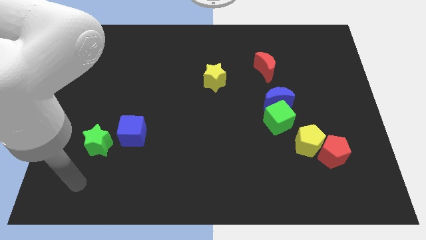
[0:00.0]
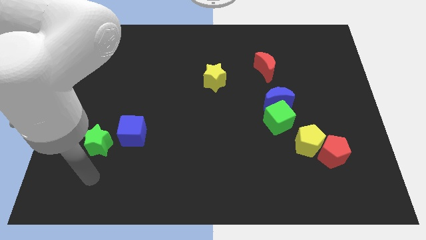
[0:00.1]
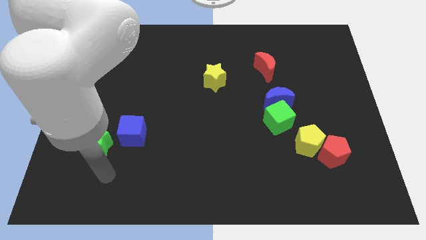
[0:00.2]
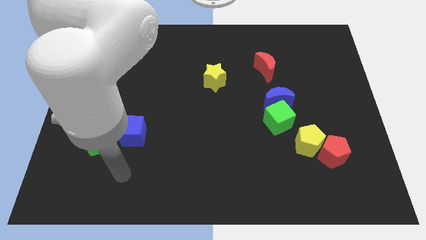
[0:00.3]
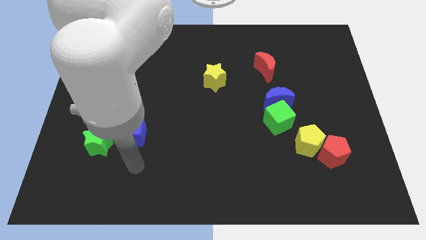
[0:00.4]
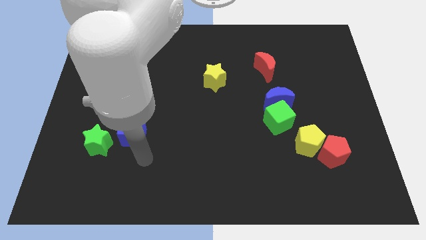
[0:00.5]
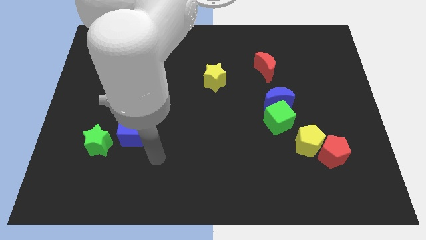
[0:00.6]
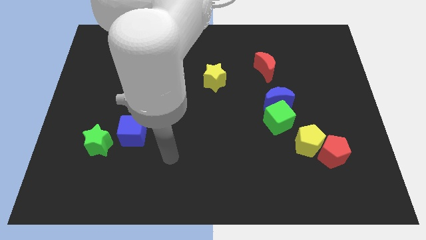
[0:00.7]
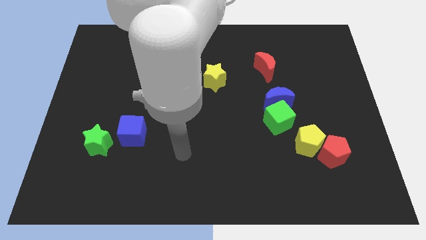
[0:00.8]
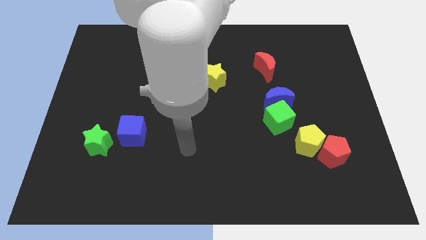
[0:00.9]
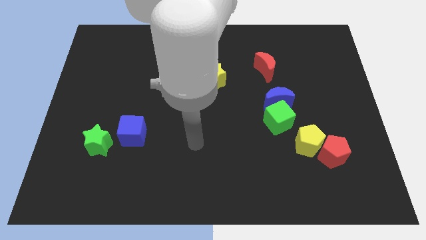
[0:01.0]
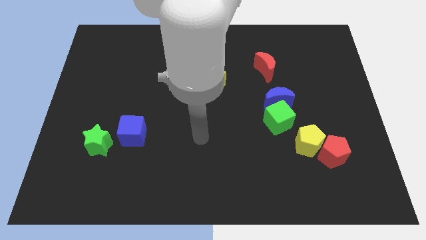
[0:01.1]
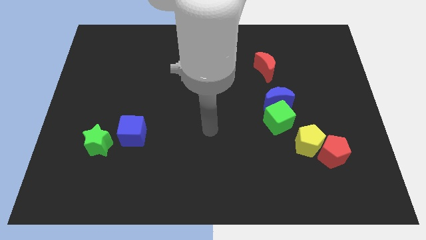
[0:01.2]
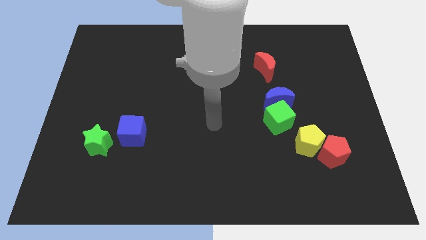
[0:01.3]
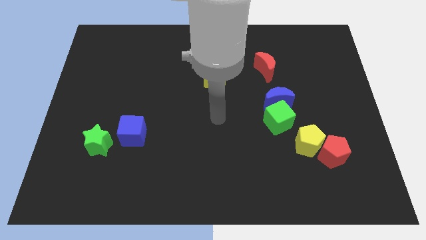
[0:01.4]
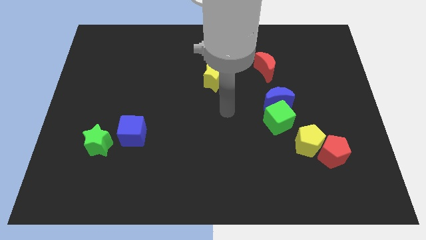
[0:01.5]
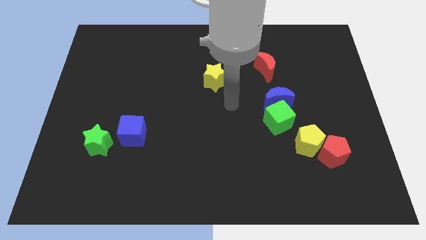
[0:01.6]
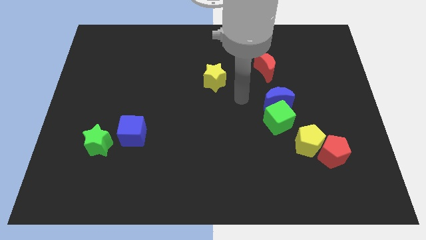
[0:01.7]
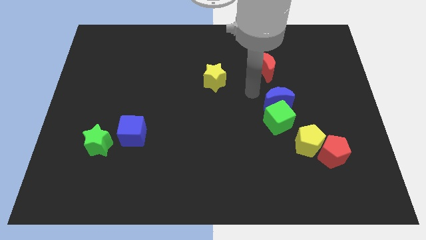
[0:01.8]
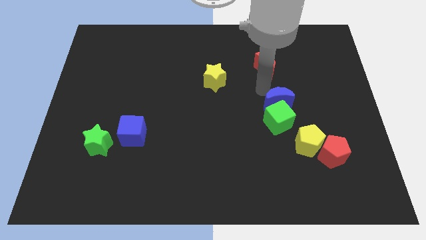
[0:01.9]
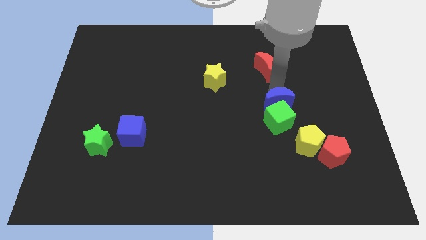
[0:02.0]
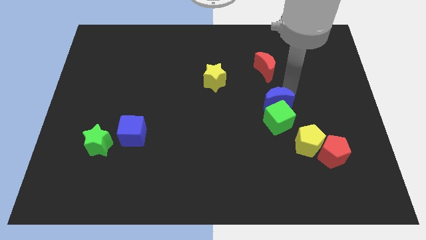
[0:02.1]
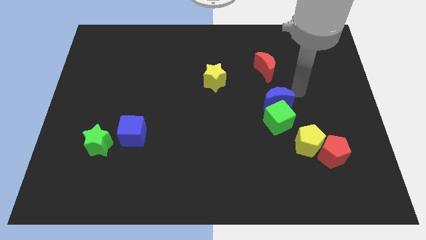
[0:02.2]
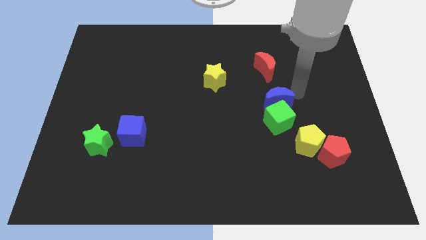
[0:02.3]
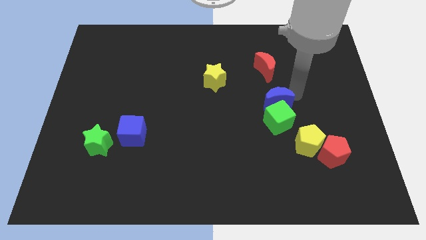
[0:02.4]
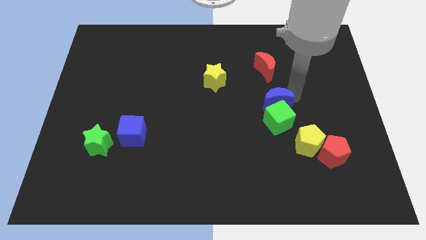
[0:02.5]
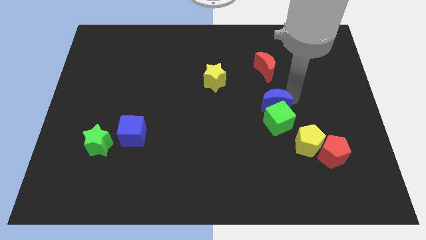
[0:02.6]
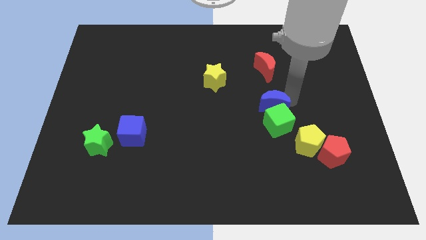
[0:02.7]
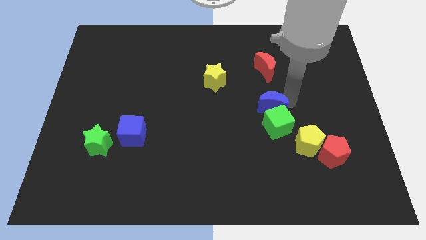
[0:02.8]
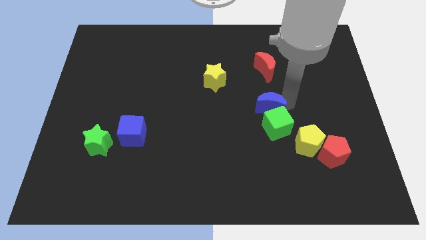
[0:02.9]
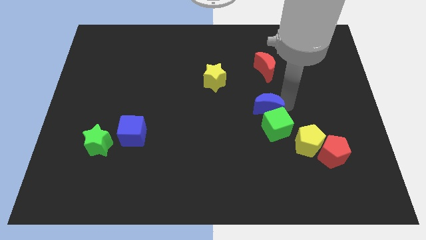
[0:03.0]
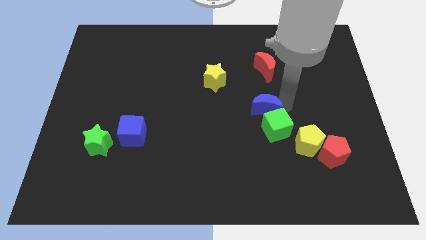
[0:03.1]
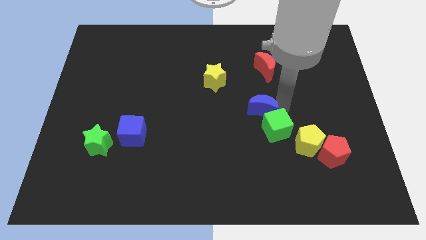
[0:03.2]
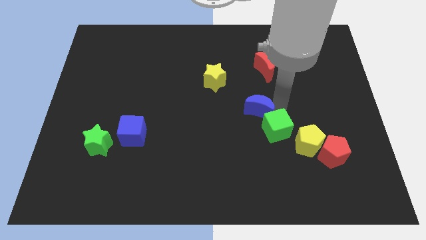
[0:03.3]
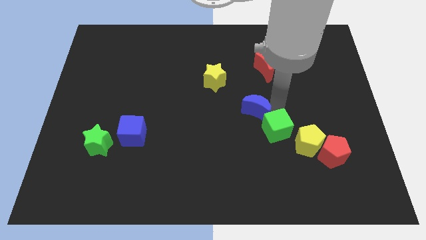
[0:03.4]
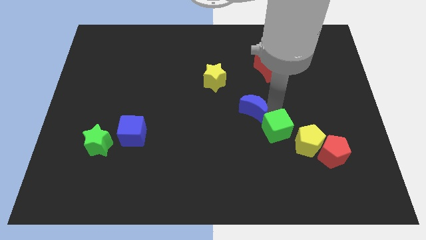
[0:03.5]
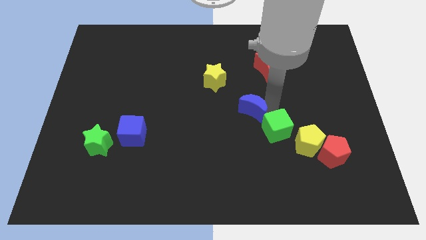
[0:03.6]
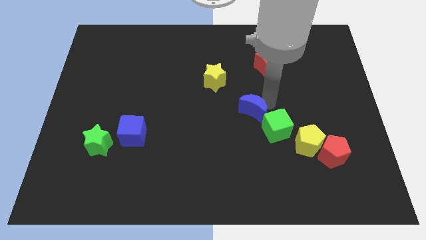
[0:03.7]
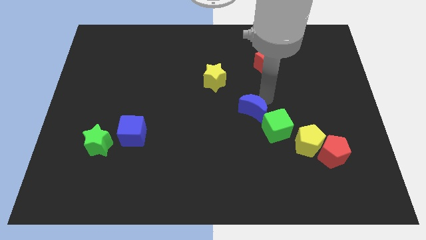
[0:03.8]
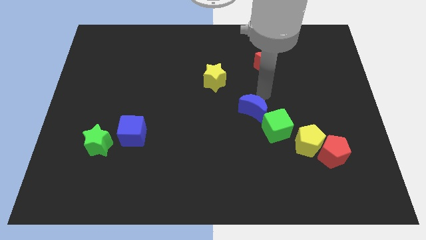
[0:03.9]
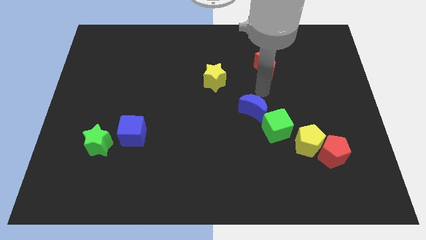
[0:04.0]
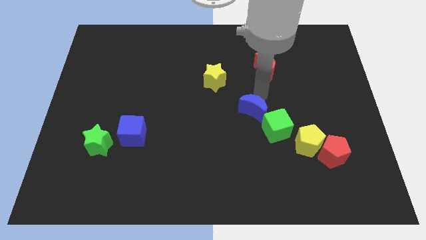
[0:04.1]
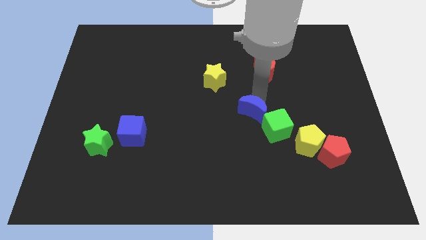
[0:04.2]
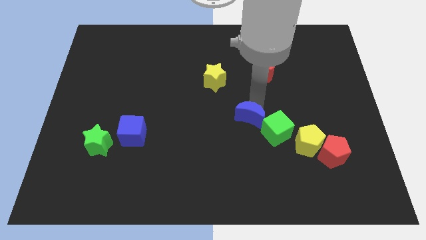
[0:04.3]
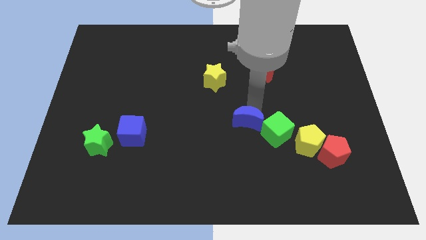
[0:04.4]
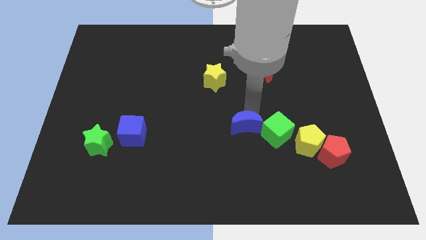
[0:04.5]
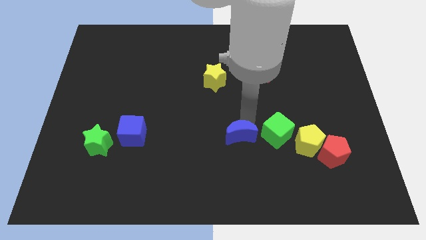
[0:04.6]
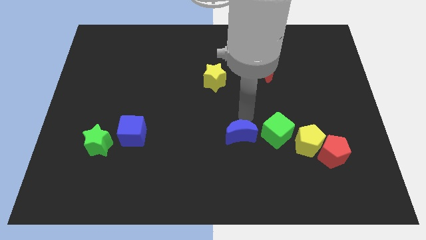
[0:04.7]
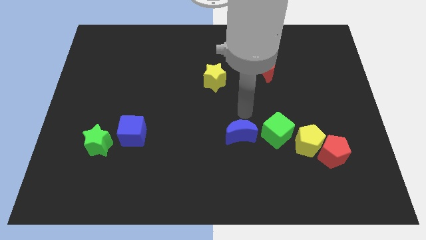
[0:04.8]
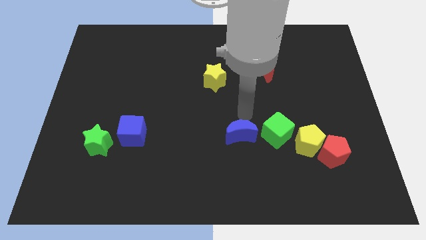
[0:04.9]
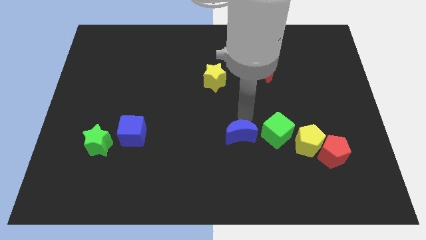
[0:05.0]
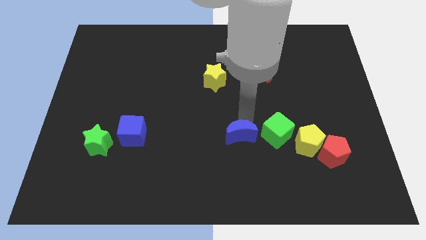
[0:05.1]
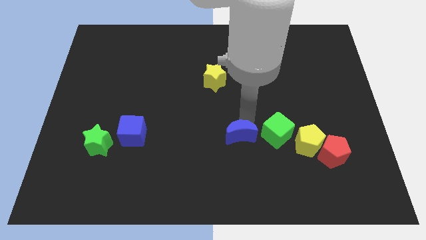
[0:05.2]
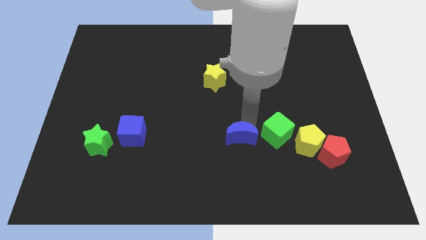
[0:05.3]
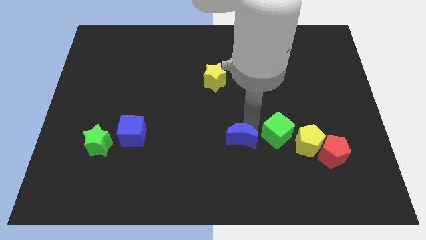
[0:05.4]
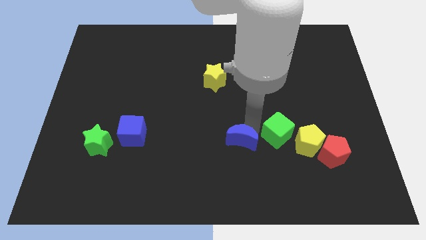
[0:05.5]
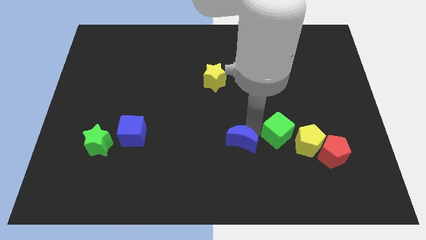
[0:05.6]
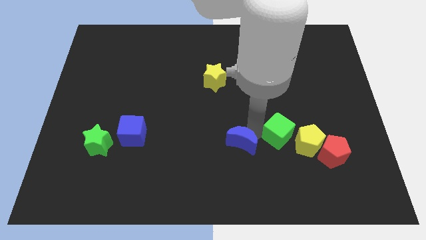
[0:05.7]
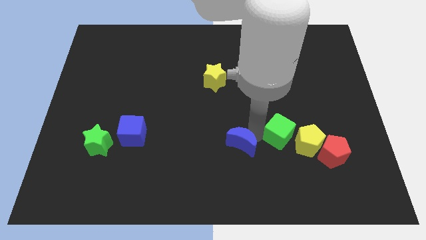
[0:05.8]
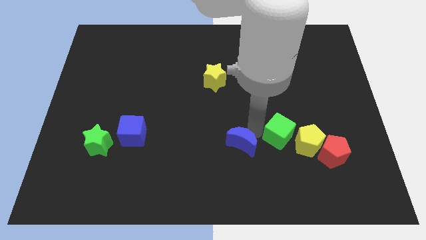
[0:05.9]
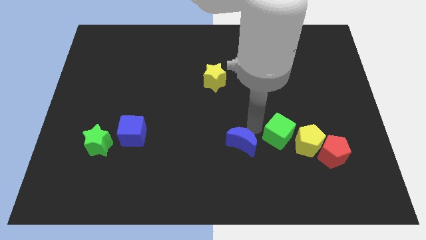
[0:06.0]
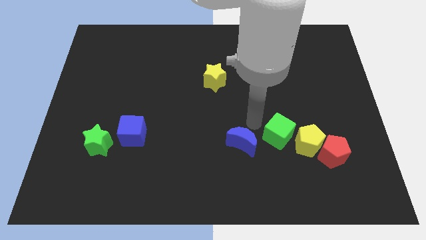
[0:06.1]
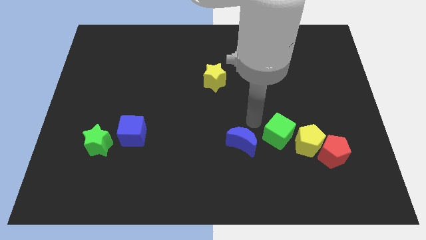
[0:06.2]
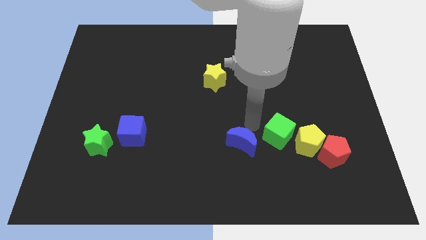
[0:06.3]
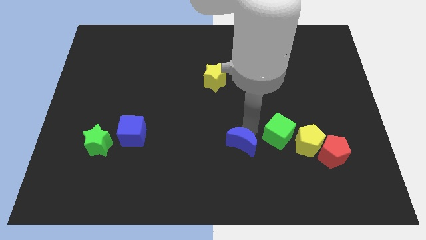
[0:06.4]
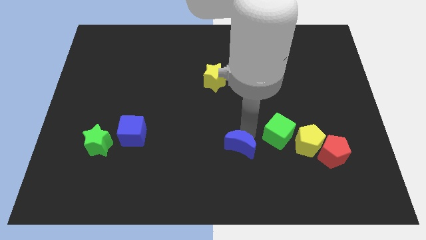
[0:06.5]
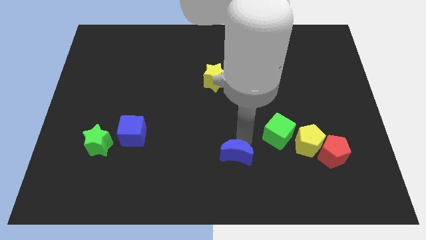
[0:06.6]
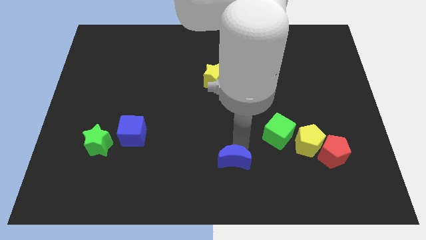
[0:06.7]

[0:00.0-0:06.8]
slide the blue moon to the bottom side
